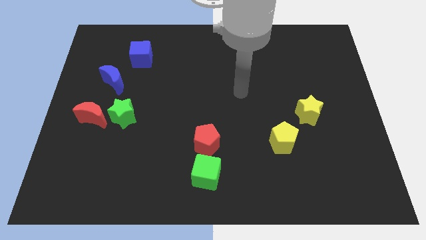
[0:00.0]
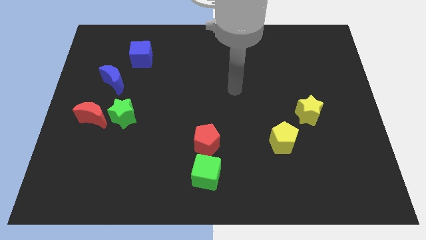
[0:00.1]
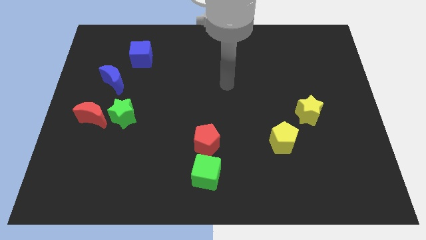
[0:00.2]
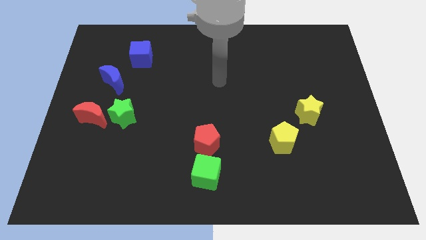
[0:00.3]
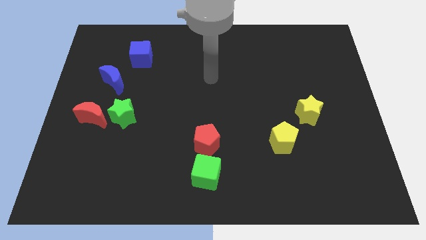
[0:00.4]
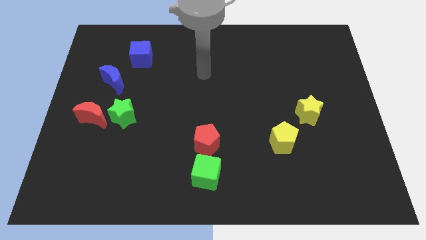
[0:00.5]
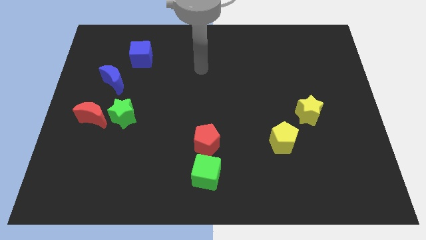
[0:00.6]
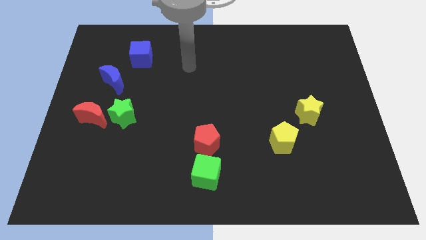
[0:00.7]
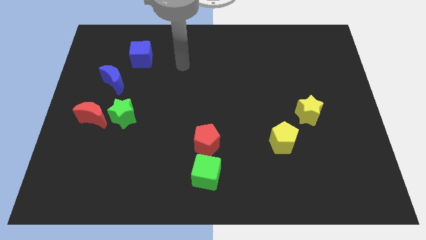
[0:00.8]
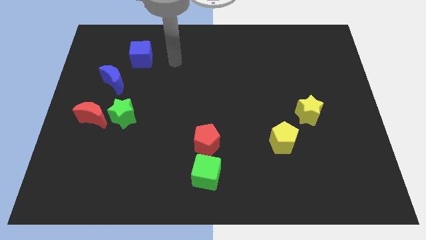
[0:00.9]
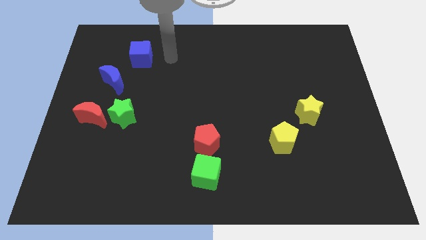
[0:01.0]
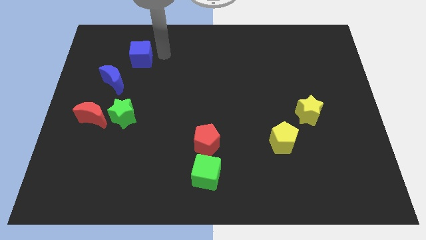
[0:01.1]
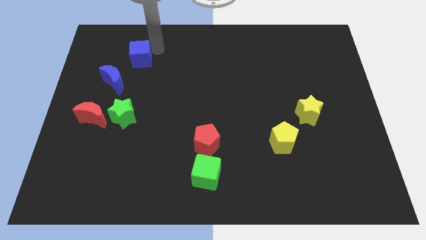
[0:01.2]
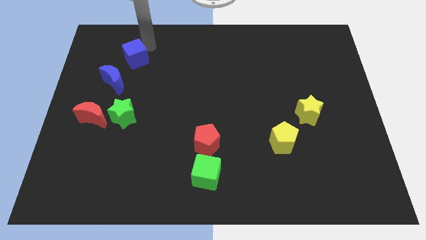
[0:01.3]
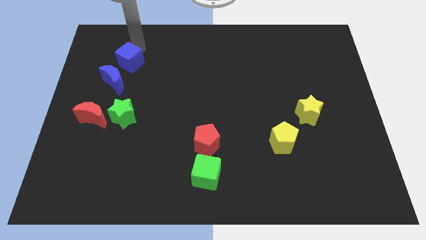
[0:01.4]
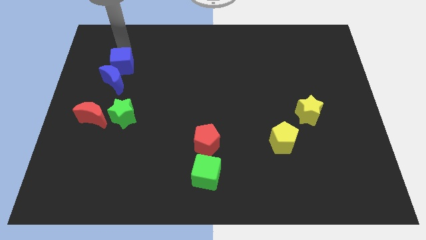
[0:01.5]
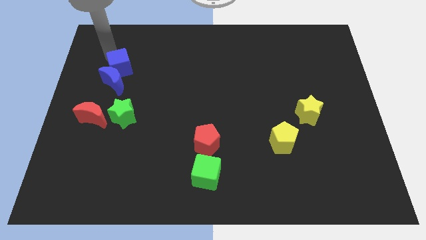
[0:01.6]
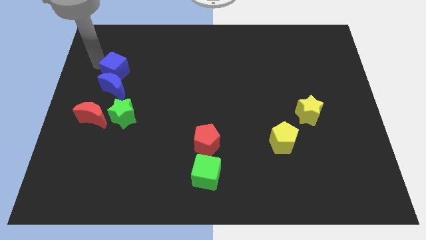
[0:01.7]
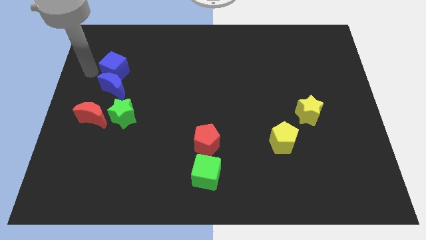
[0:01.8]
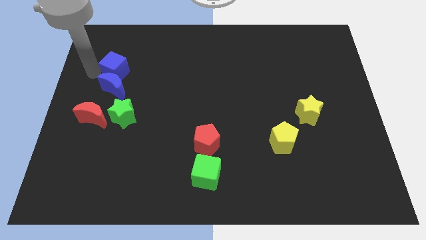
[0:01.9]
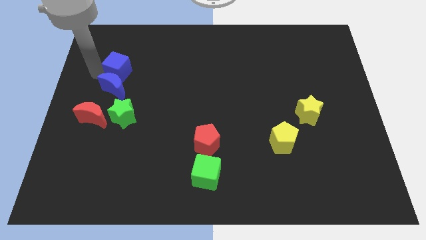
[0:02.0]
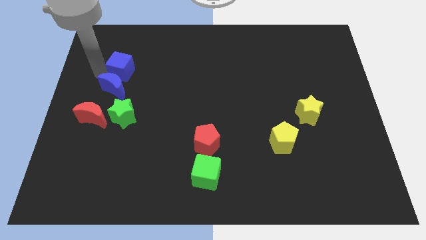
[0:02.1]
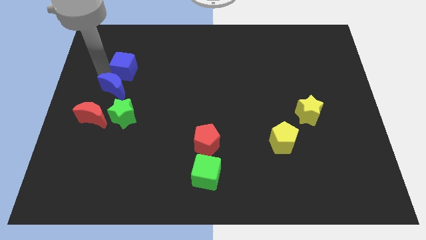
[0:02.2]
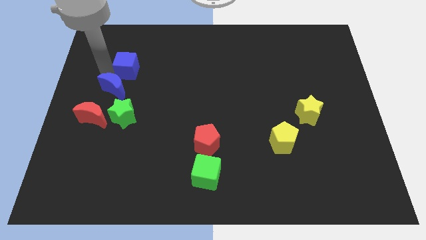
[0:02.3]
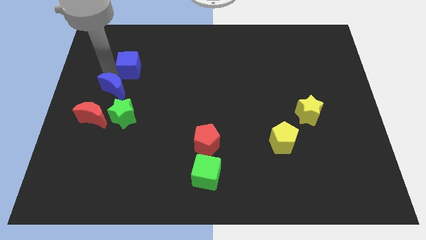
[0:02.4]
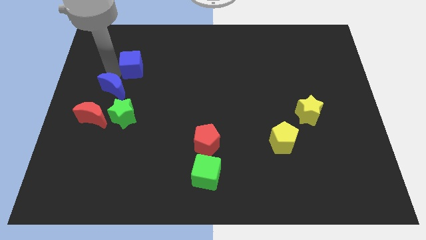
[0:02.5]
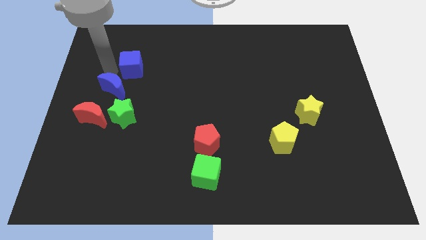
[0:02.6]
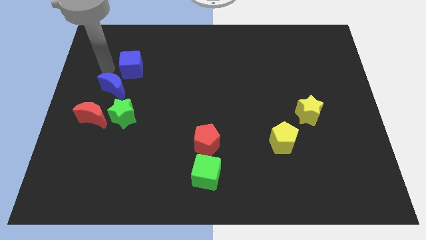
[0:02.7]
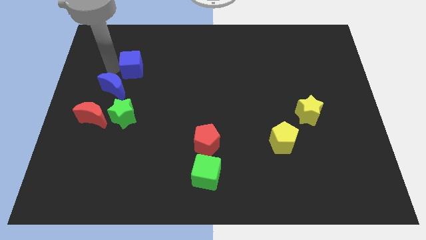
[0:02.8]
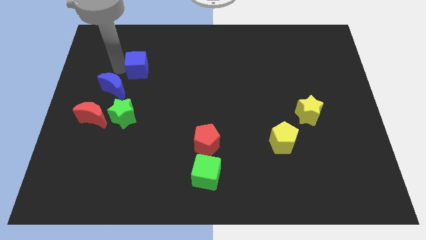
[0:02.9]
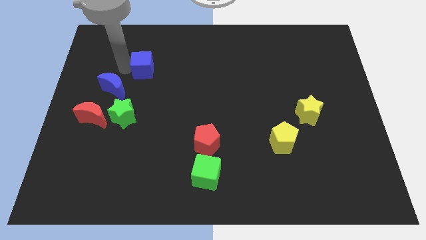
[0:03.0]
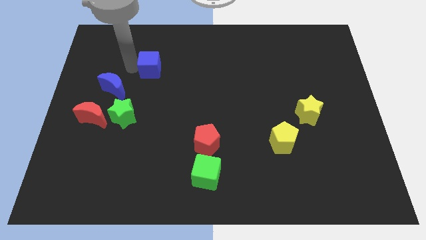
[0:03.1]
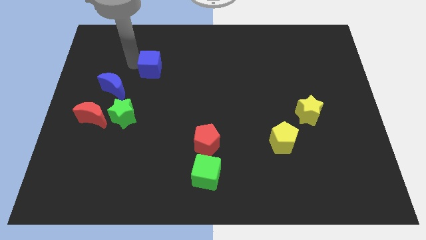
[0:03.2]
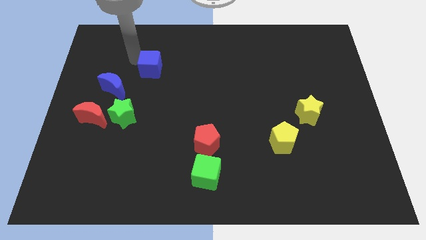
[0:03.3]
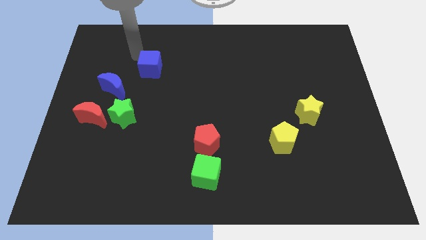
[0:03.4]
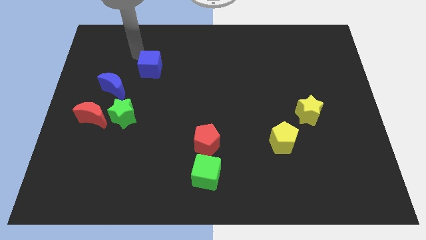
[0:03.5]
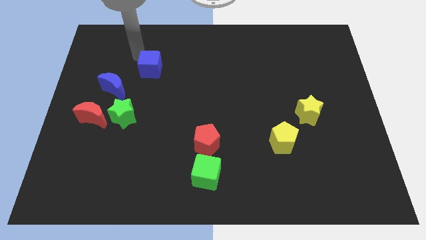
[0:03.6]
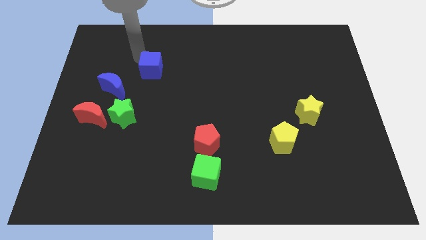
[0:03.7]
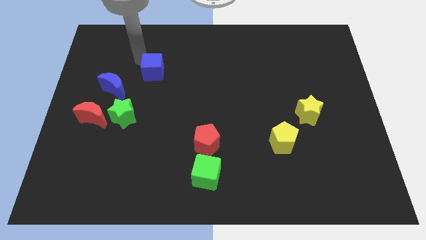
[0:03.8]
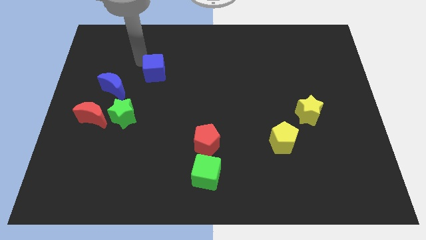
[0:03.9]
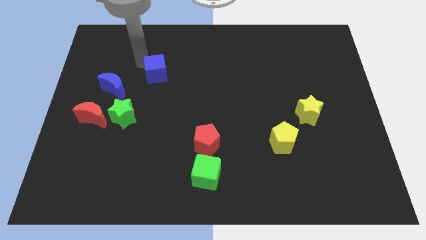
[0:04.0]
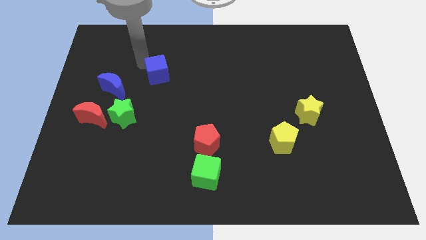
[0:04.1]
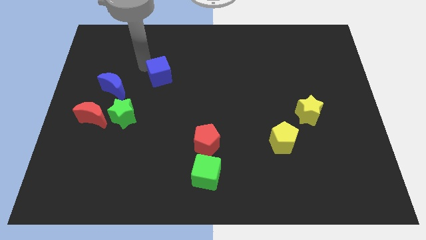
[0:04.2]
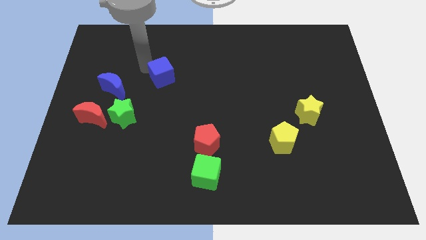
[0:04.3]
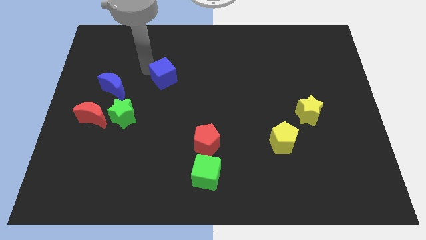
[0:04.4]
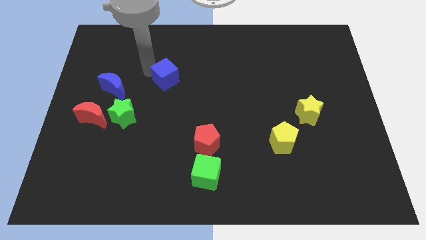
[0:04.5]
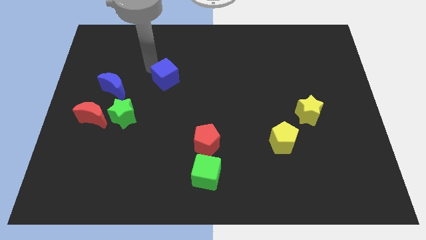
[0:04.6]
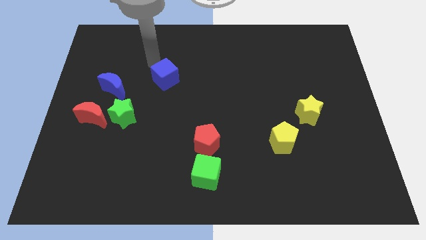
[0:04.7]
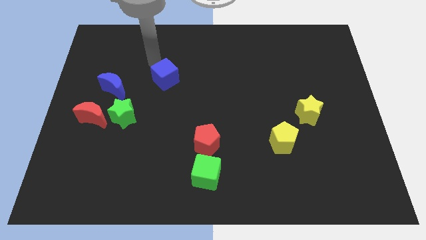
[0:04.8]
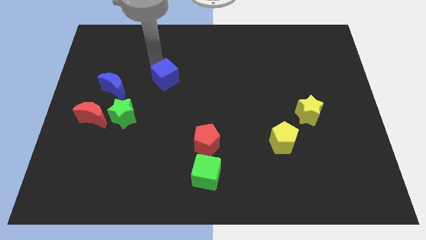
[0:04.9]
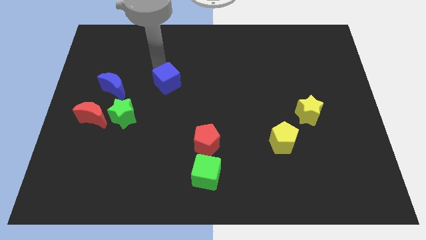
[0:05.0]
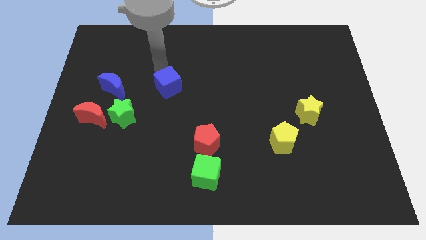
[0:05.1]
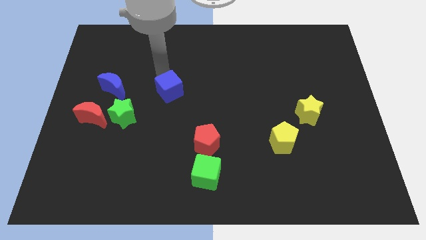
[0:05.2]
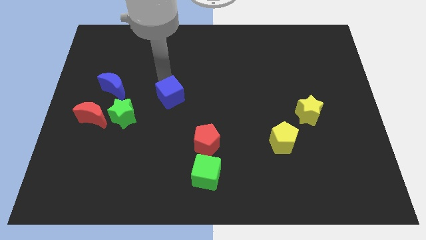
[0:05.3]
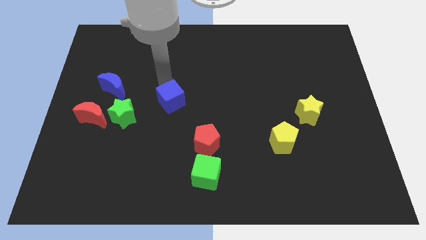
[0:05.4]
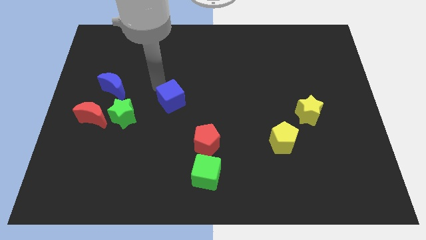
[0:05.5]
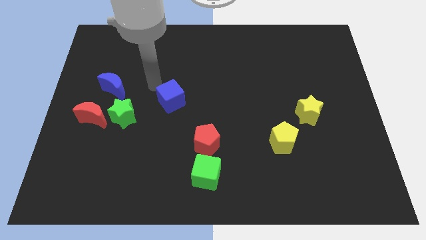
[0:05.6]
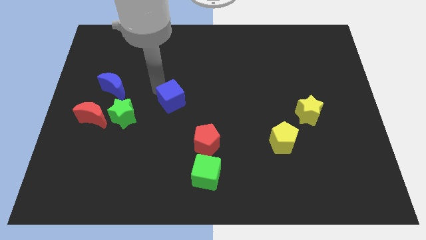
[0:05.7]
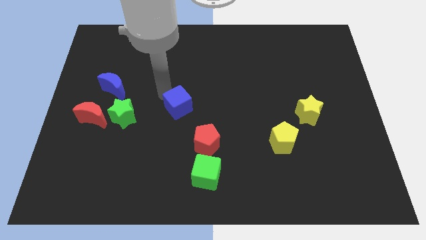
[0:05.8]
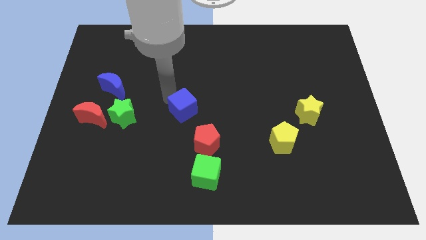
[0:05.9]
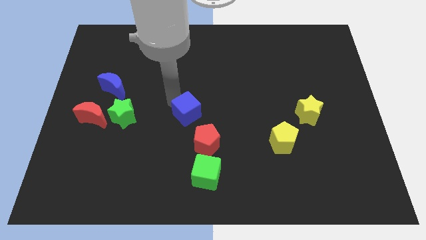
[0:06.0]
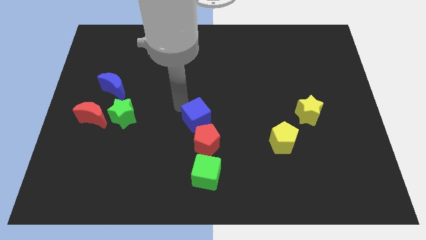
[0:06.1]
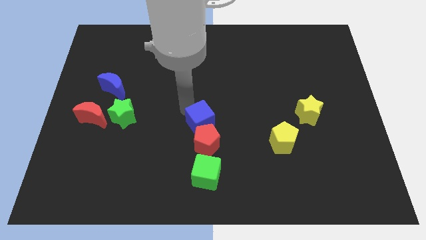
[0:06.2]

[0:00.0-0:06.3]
put the blue cube to the red pentagon

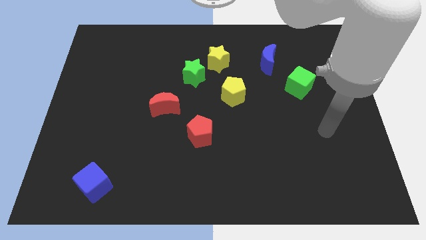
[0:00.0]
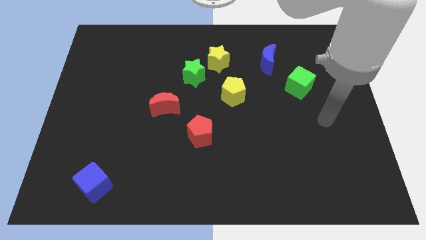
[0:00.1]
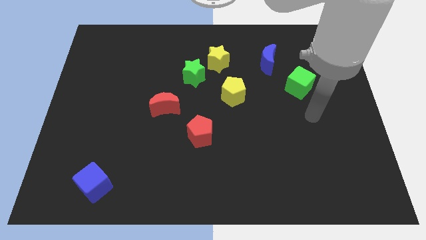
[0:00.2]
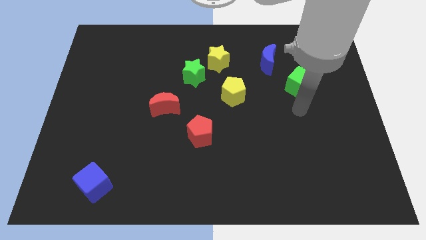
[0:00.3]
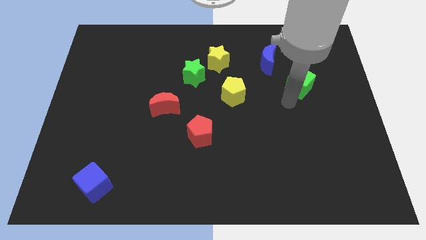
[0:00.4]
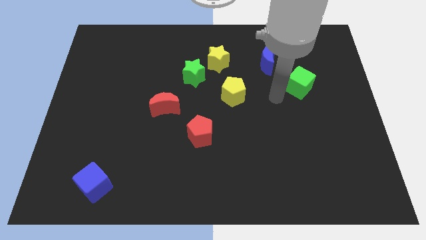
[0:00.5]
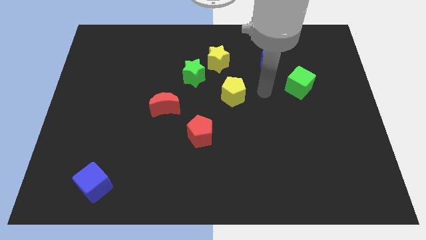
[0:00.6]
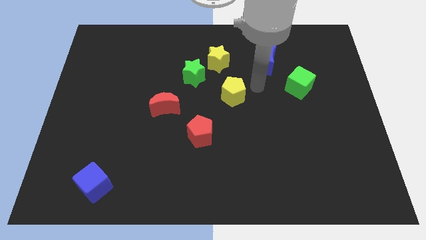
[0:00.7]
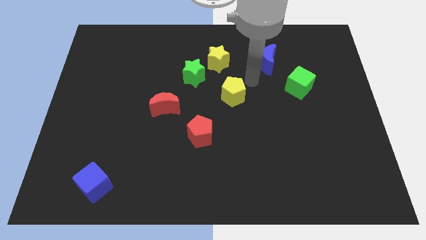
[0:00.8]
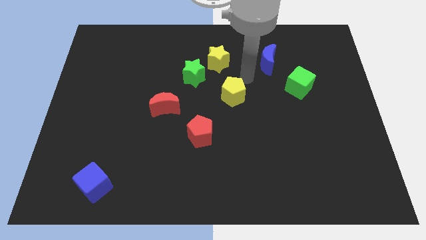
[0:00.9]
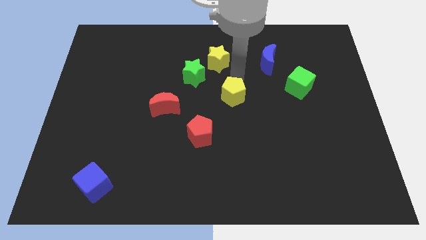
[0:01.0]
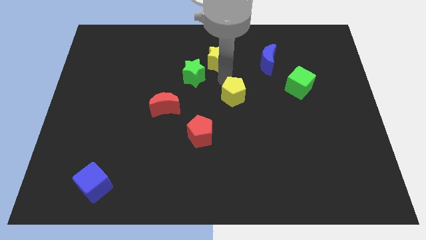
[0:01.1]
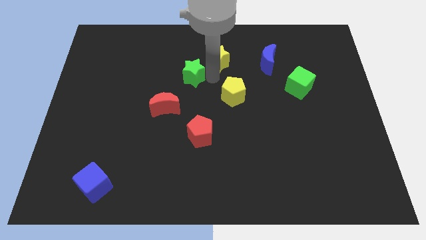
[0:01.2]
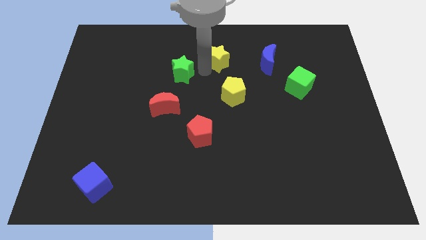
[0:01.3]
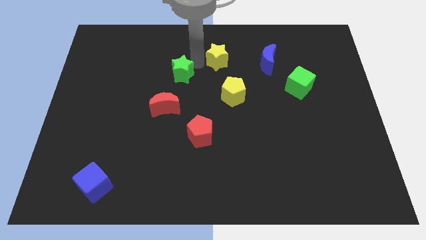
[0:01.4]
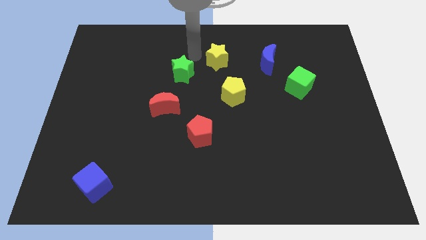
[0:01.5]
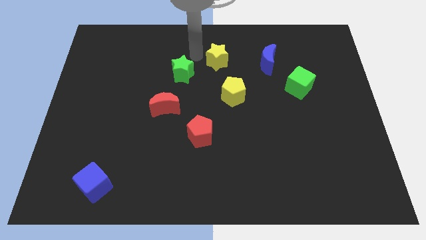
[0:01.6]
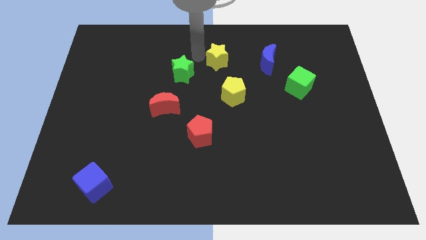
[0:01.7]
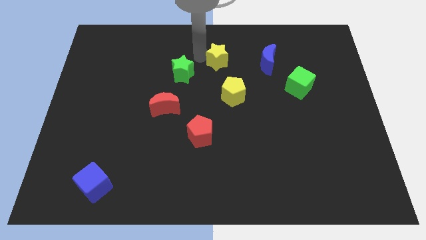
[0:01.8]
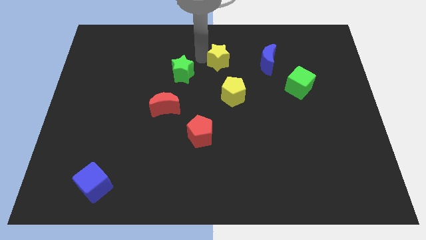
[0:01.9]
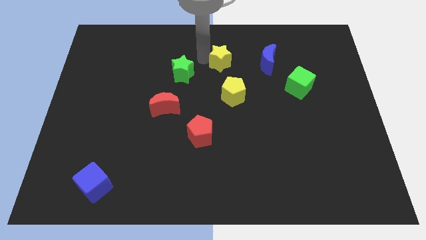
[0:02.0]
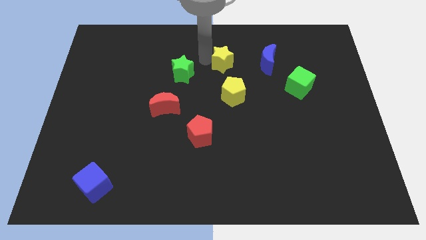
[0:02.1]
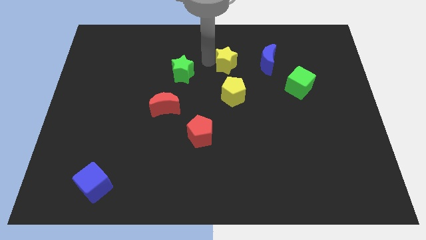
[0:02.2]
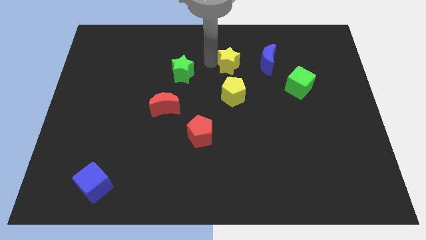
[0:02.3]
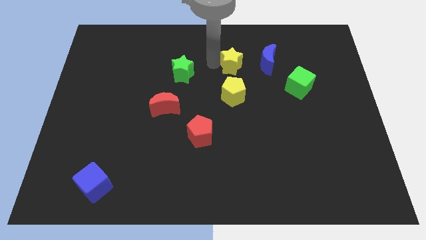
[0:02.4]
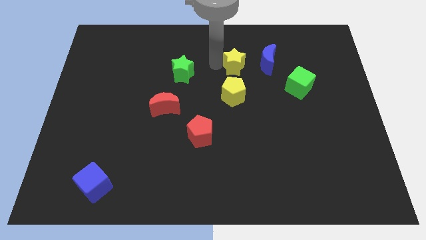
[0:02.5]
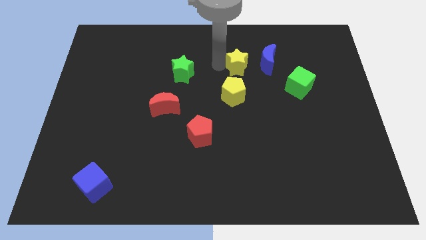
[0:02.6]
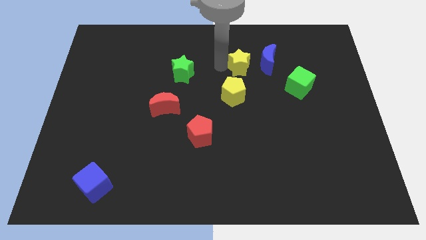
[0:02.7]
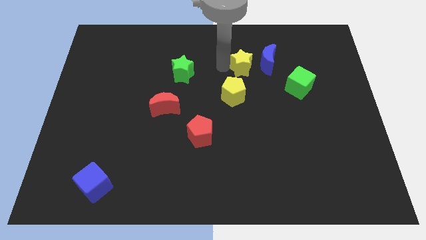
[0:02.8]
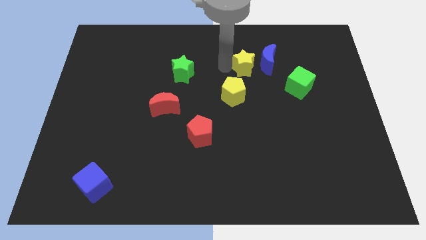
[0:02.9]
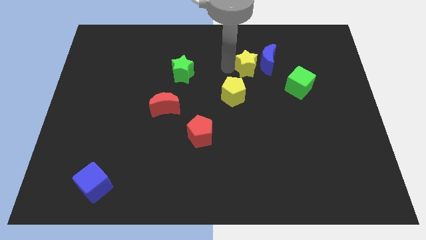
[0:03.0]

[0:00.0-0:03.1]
push the yellow star close to the blue moon
